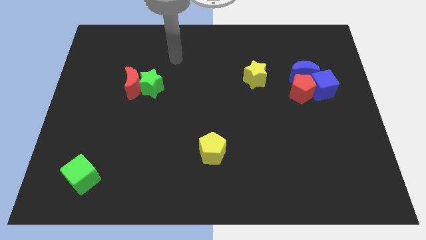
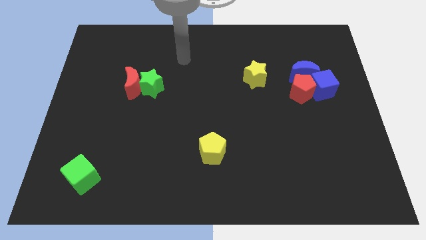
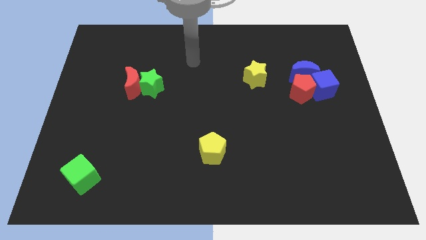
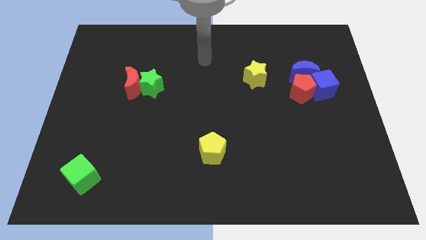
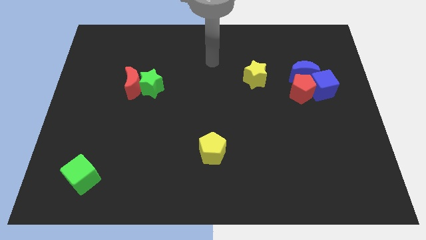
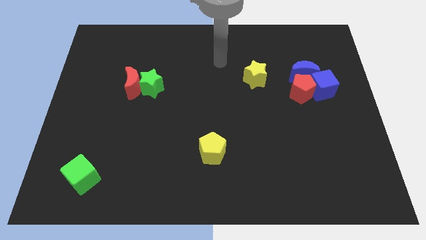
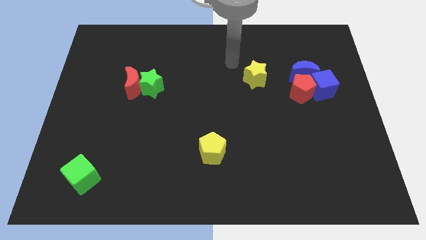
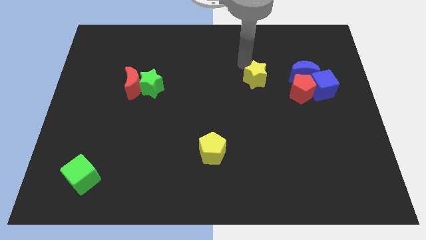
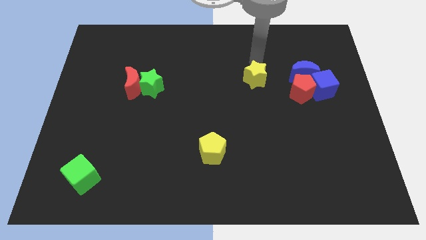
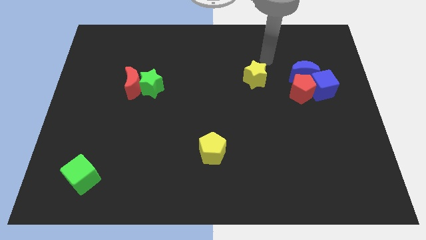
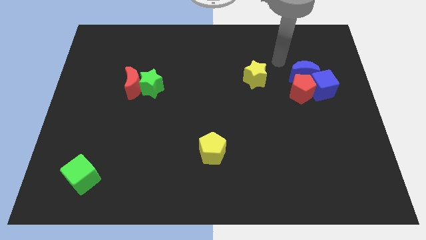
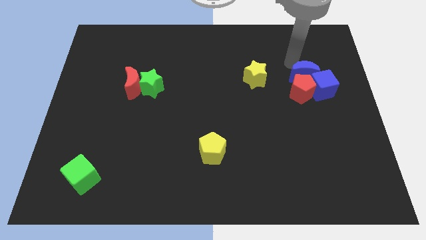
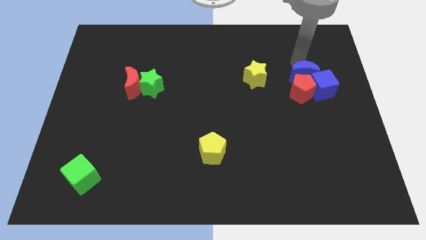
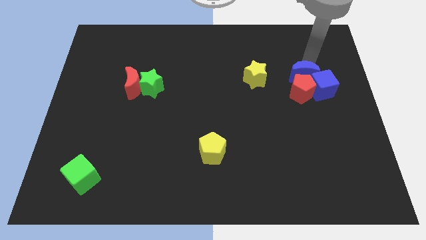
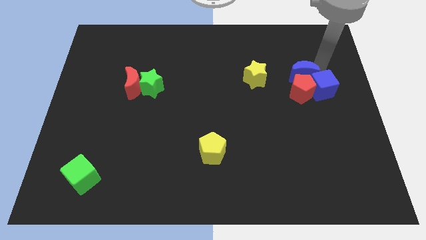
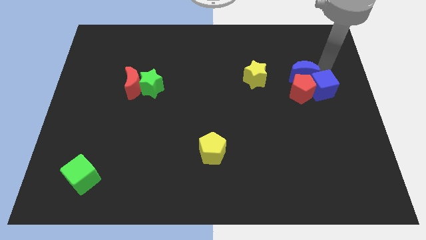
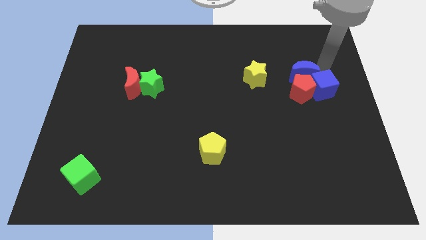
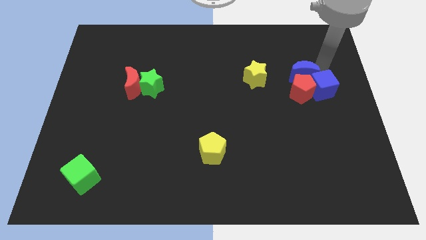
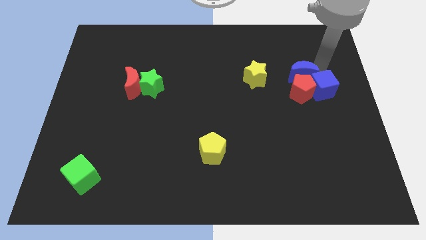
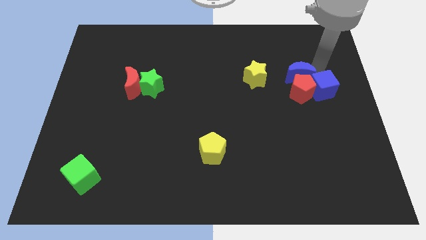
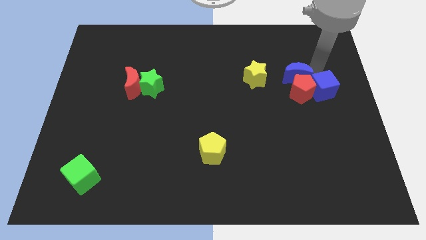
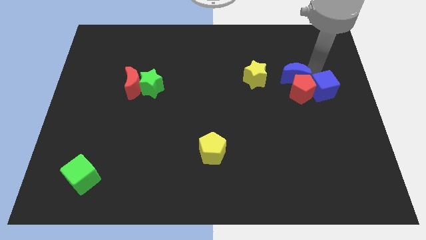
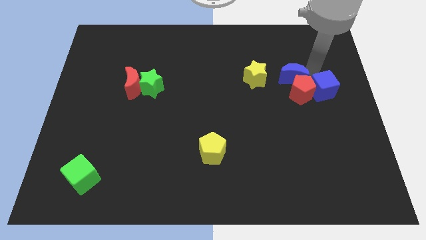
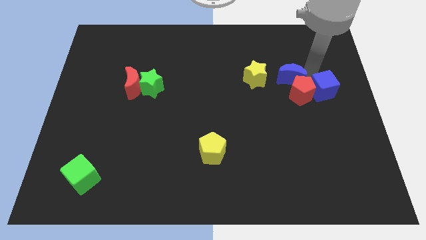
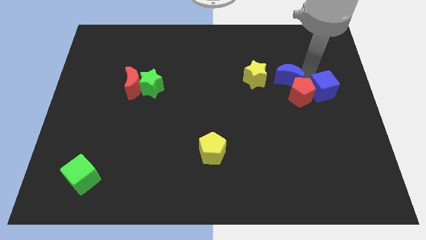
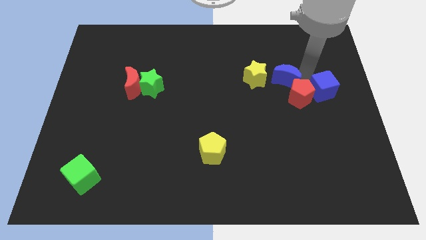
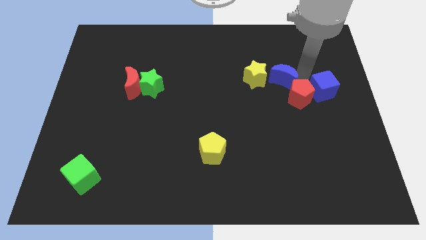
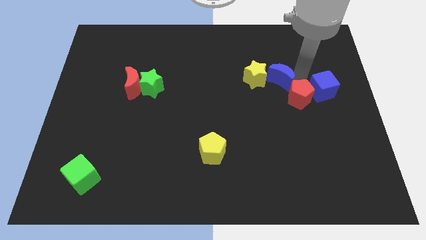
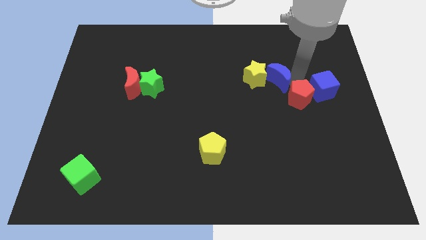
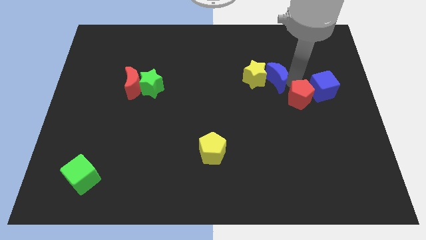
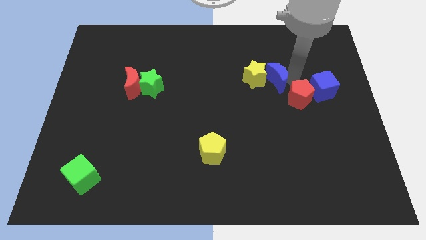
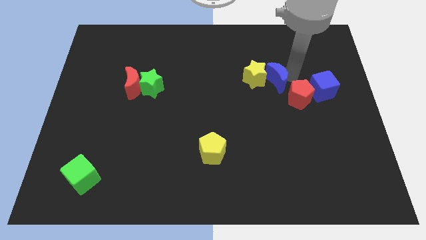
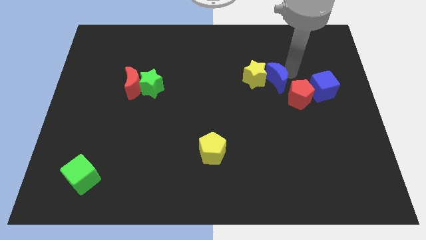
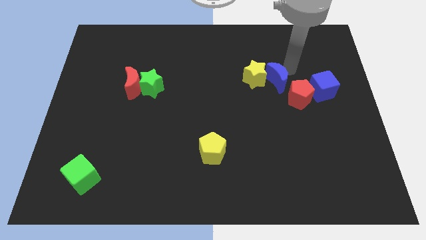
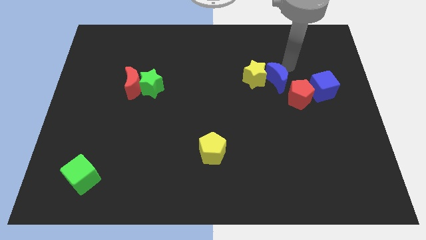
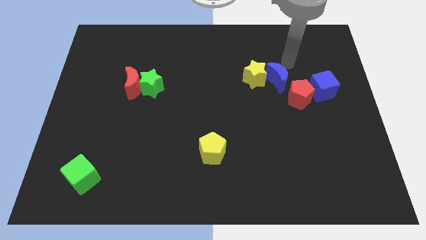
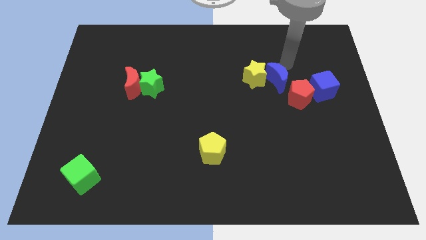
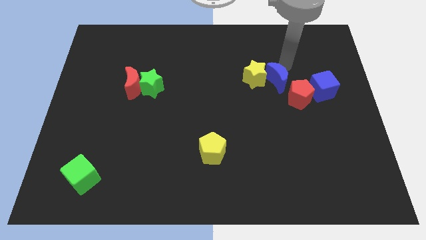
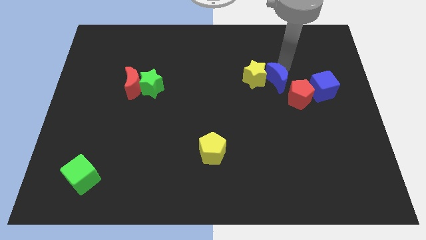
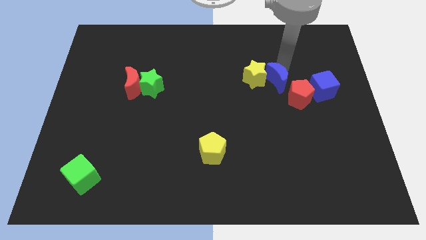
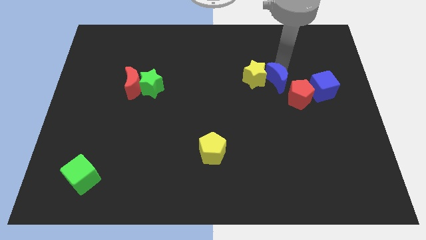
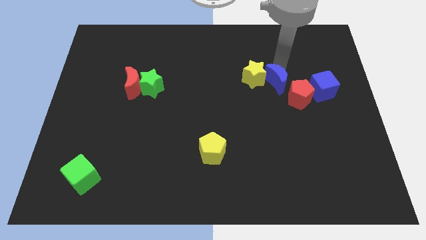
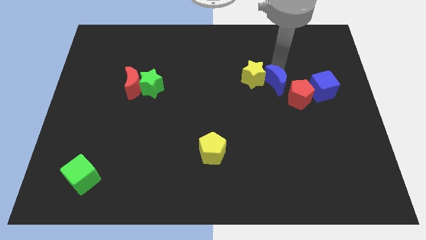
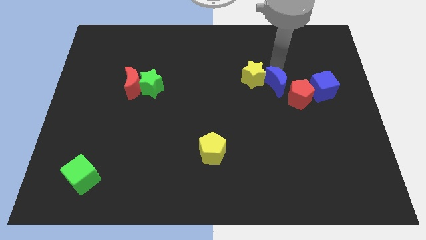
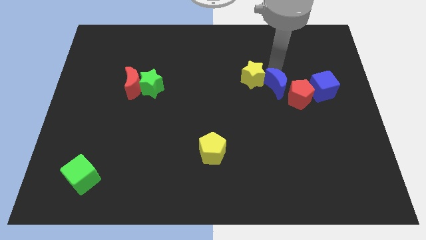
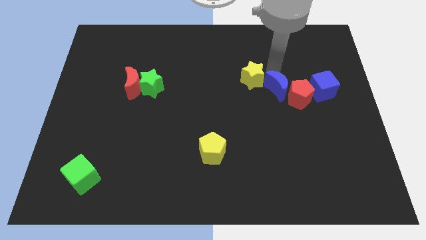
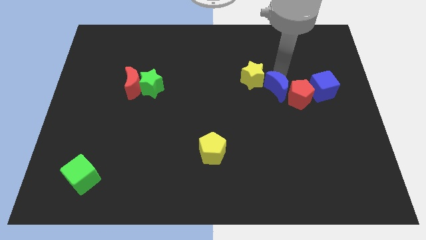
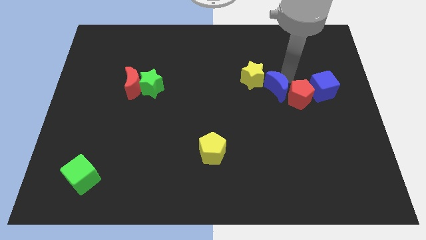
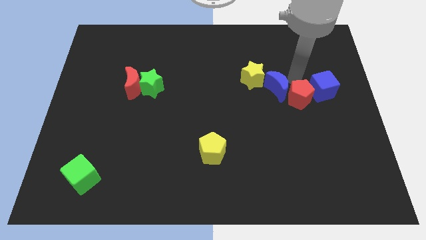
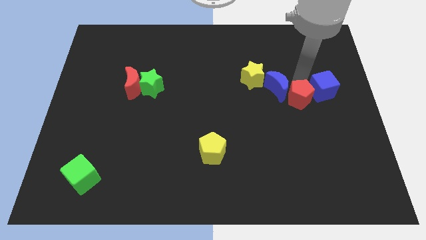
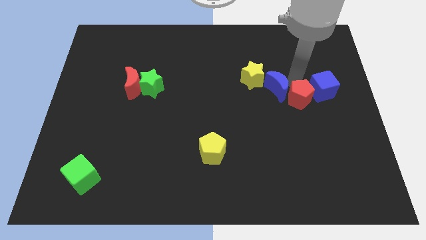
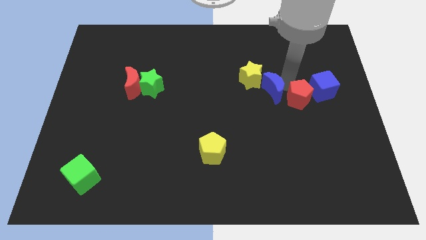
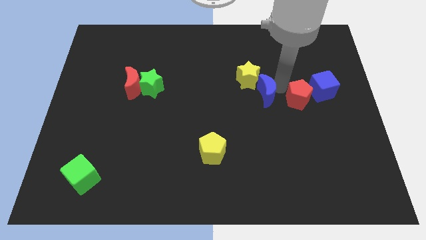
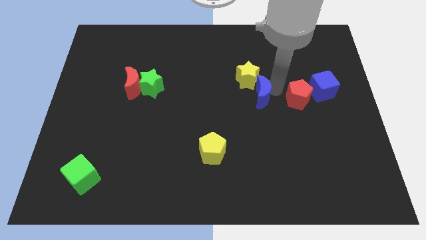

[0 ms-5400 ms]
put the blue moon to the center of the board

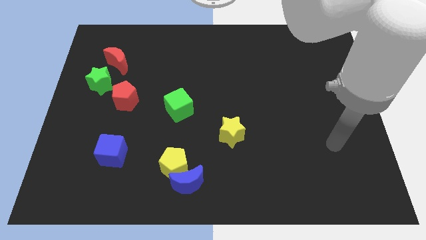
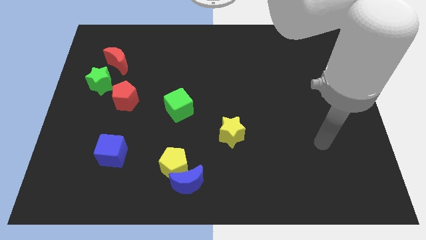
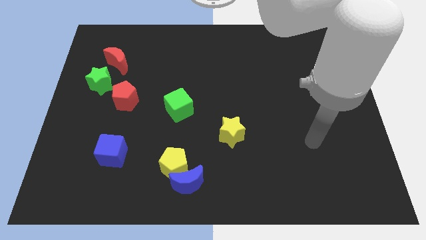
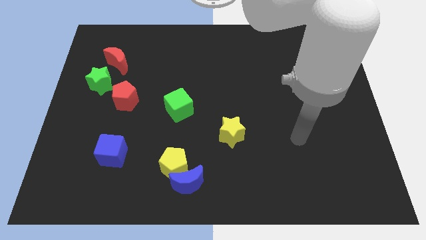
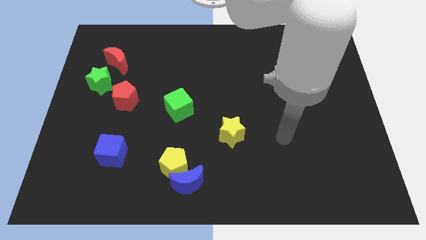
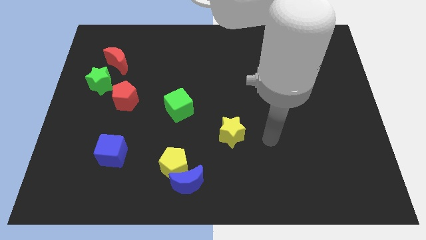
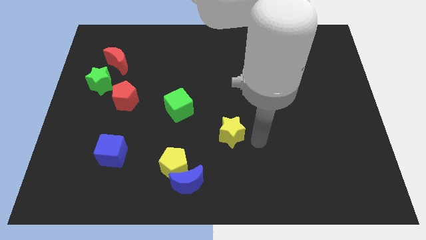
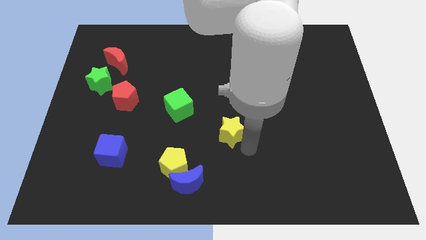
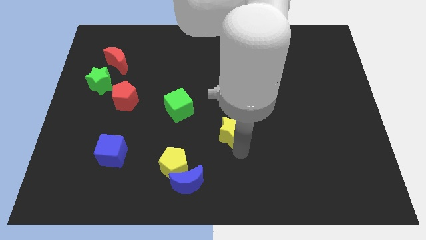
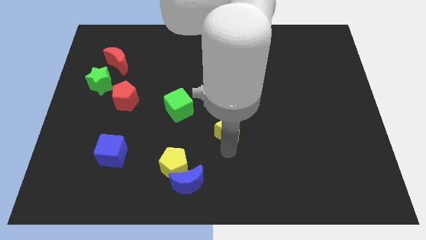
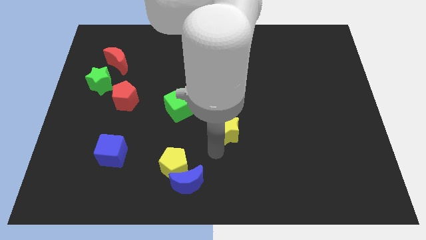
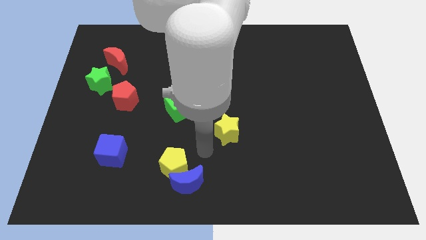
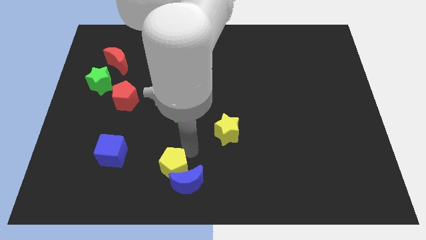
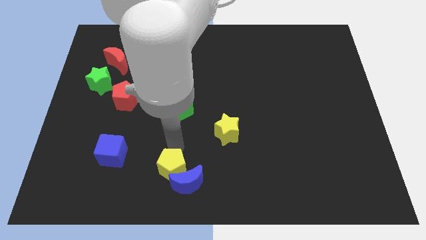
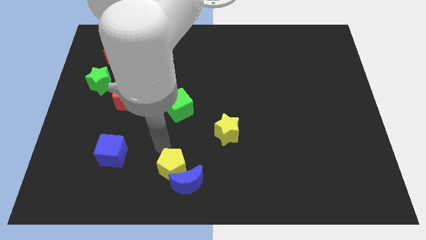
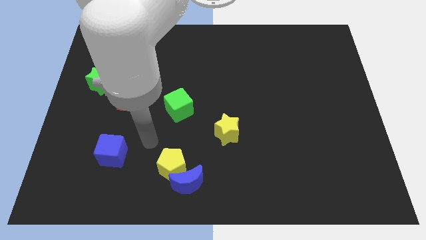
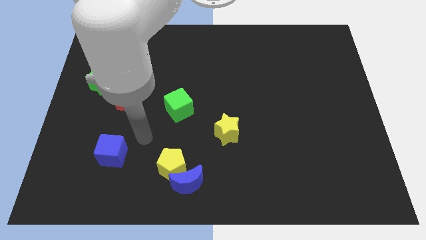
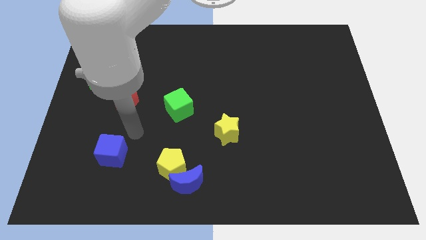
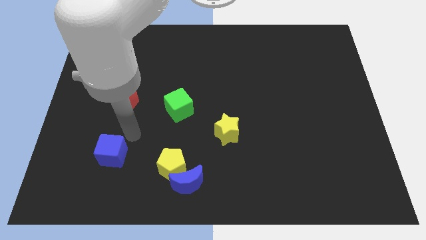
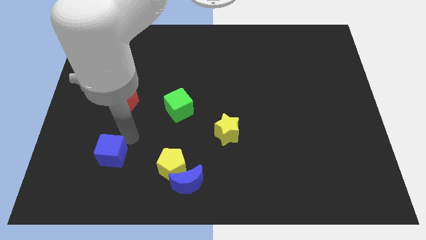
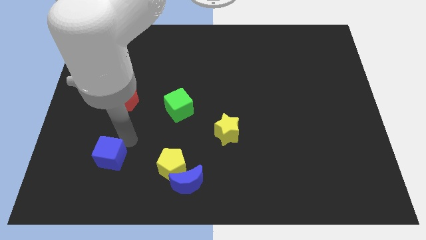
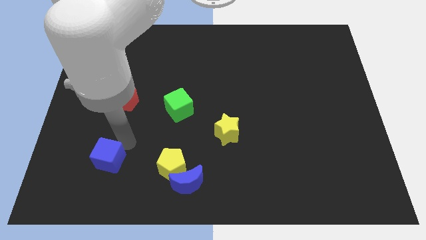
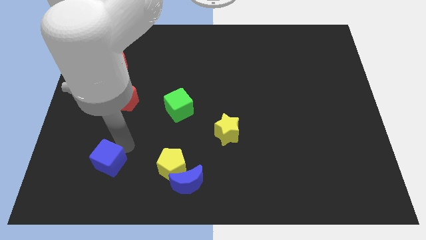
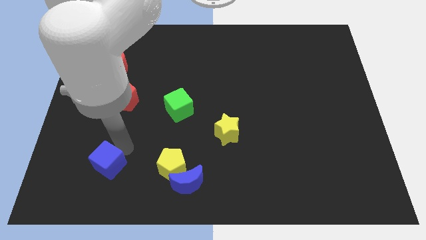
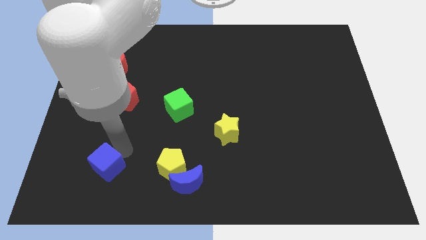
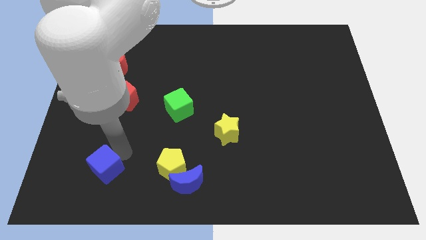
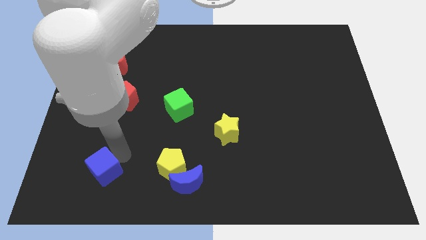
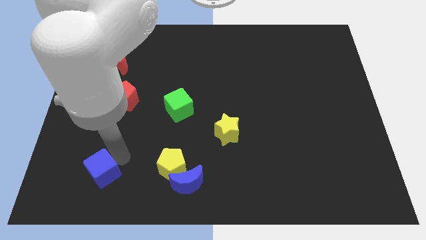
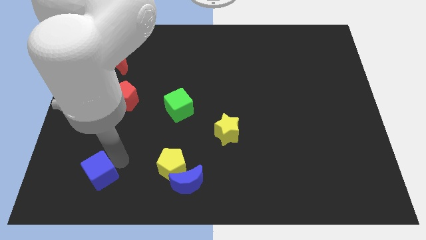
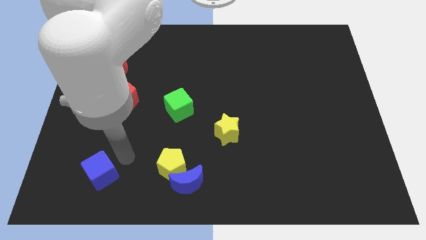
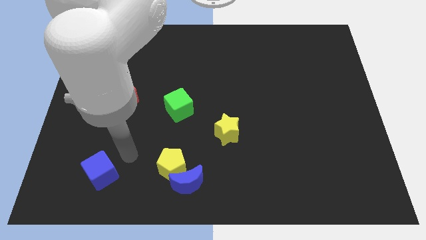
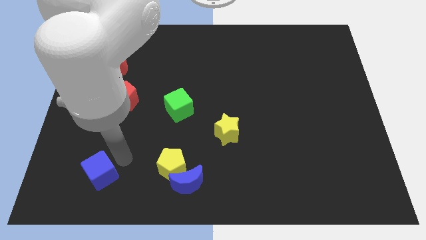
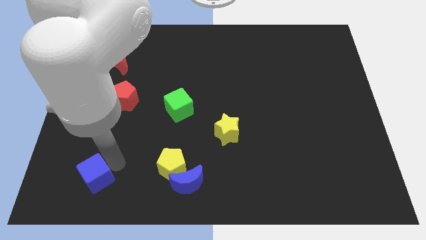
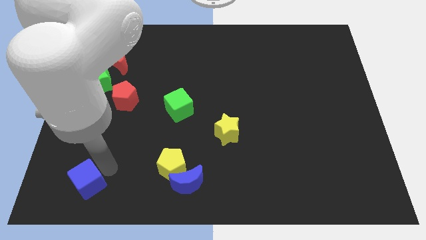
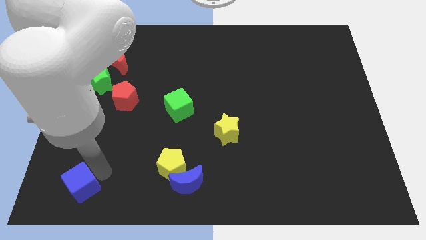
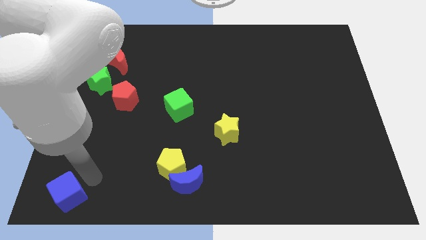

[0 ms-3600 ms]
put the blue cube to the bottom left of the board
